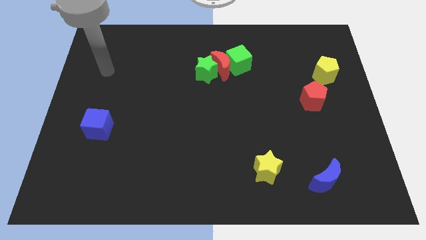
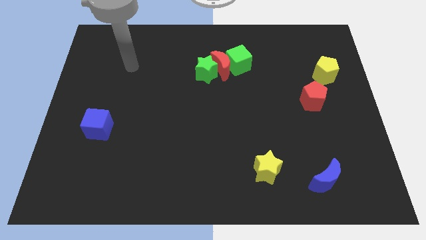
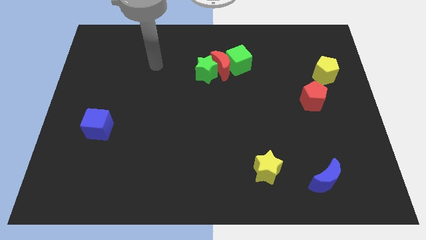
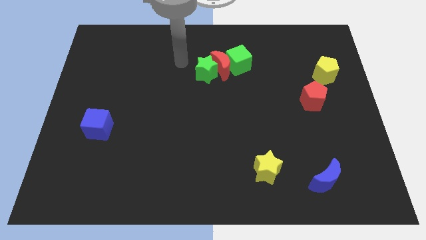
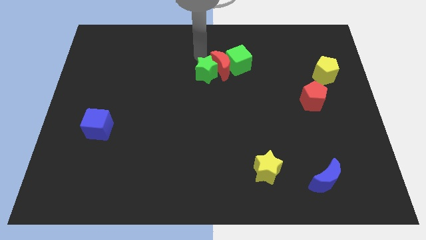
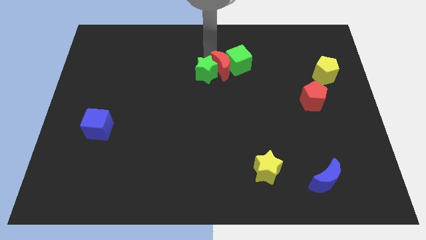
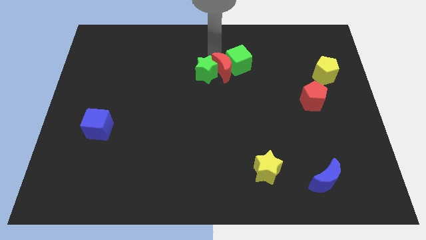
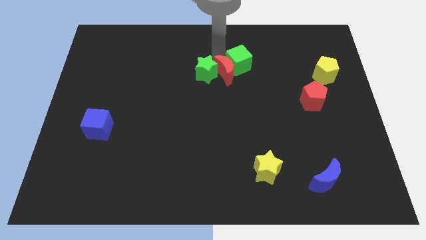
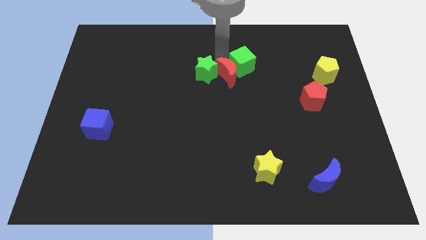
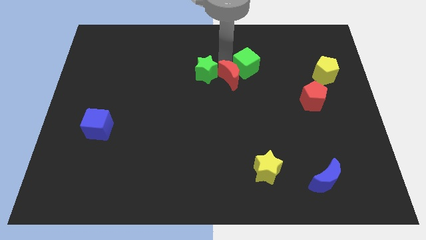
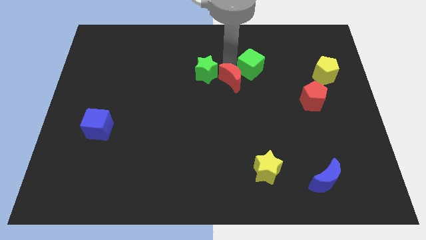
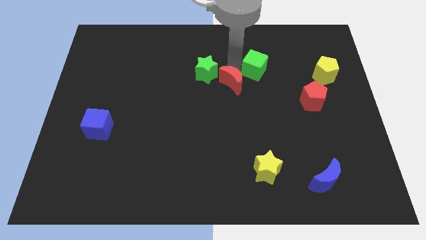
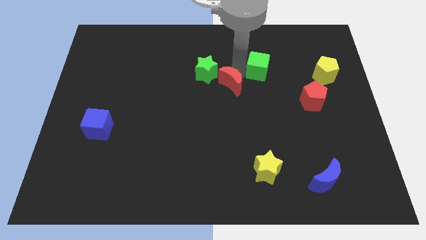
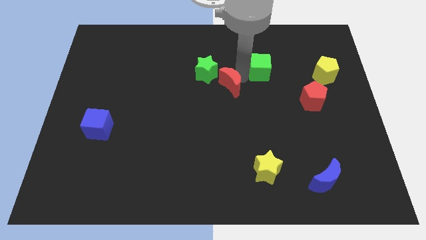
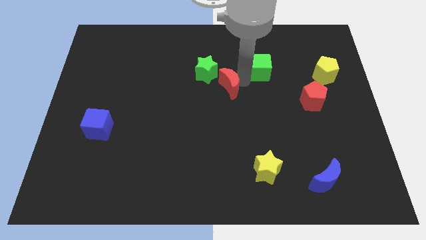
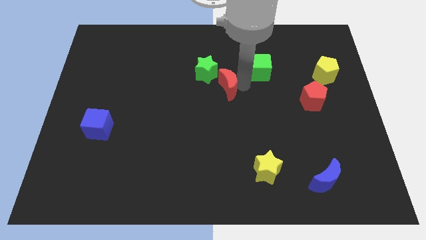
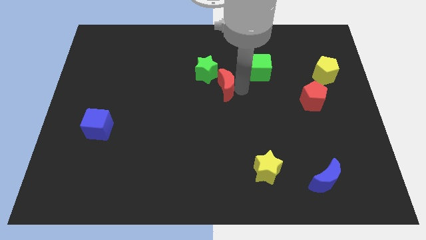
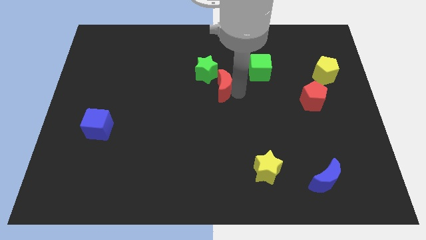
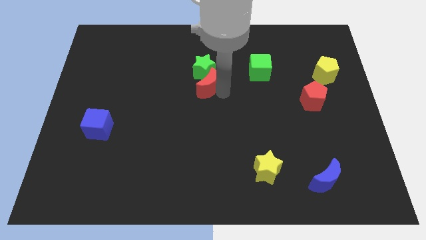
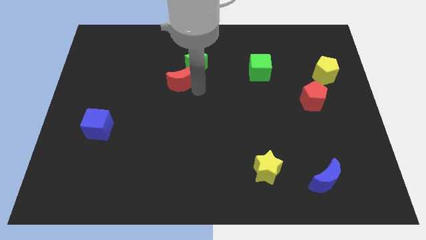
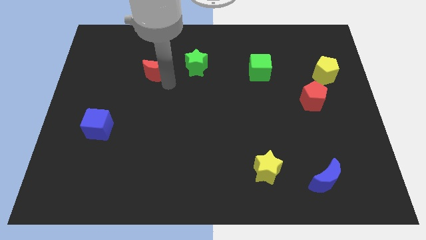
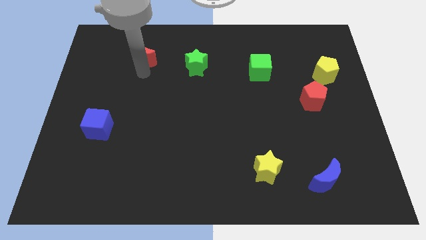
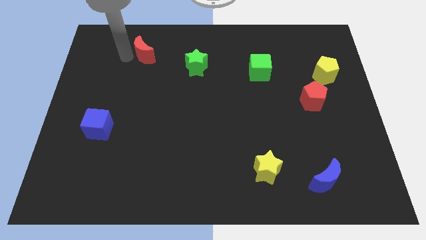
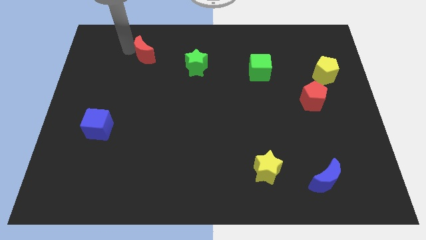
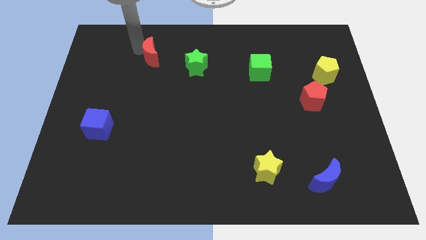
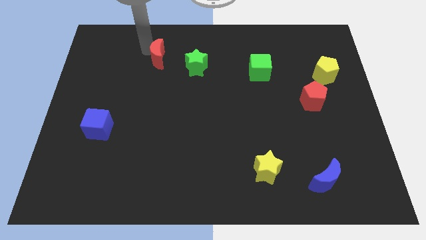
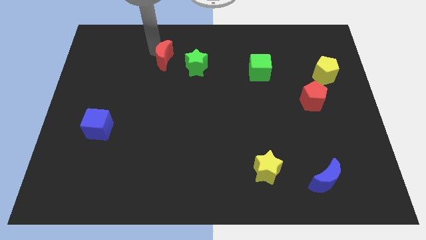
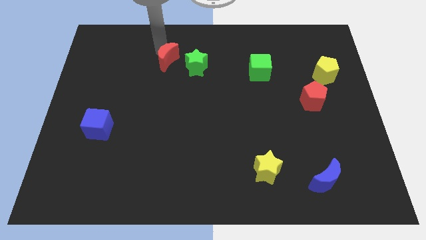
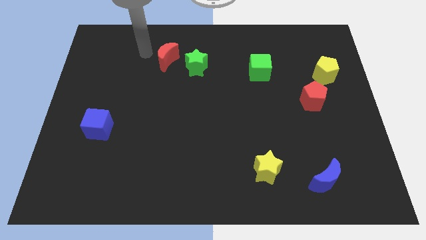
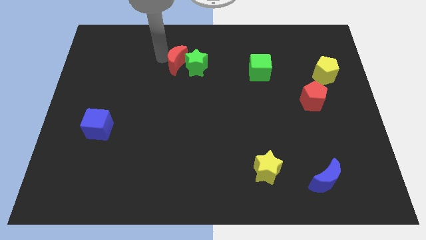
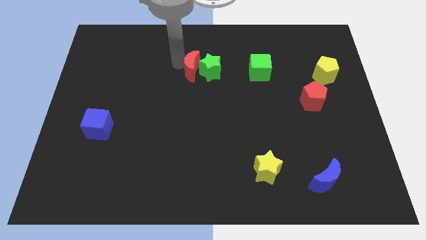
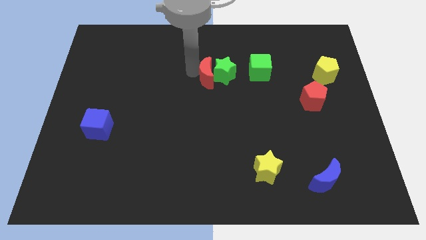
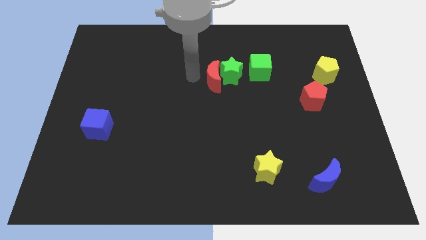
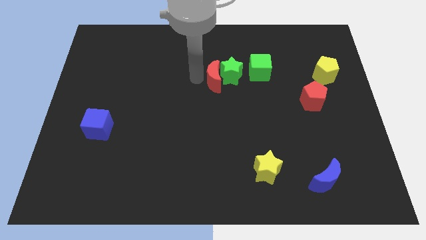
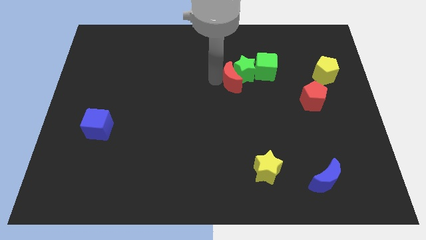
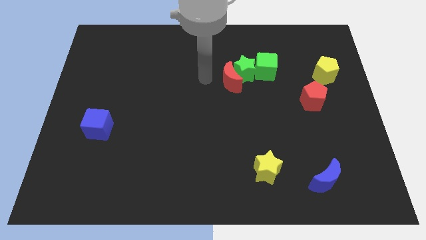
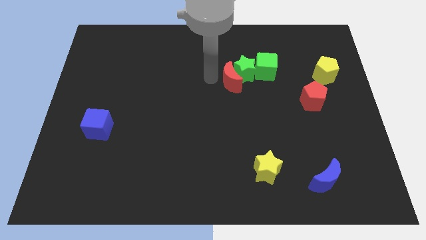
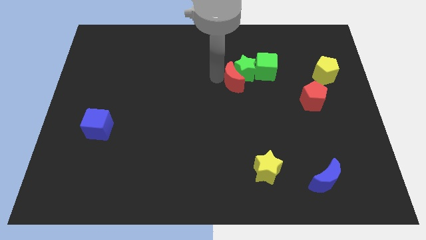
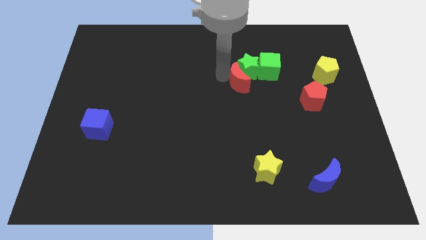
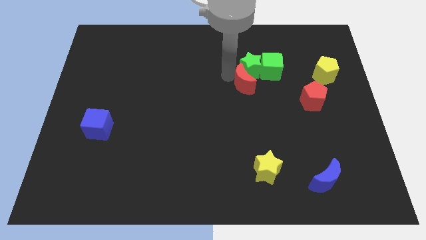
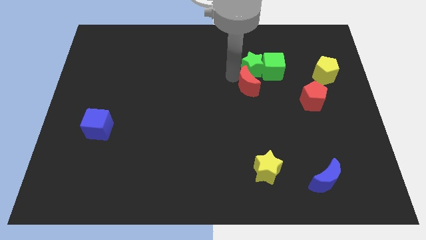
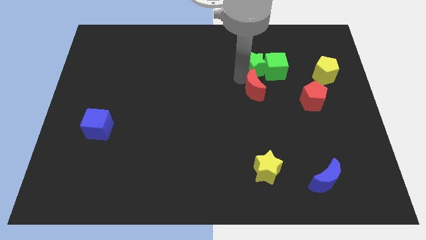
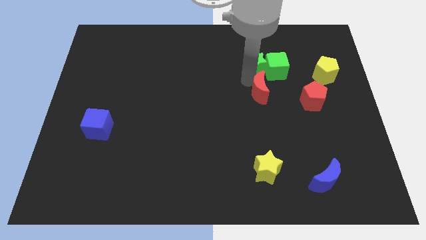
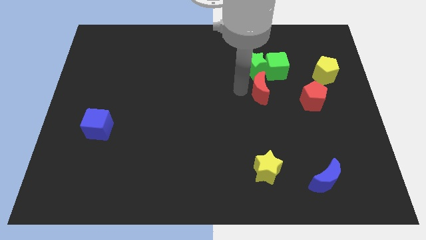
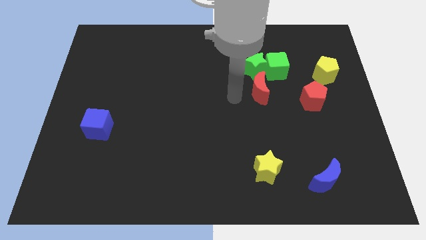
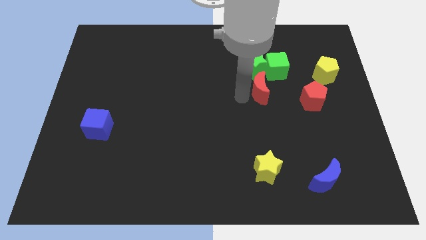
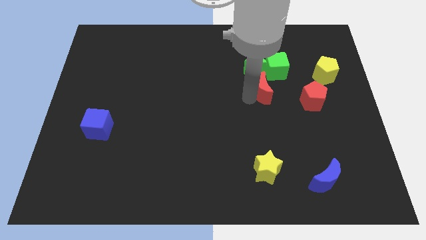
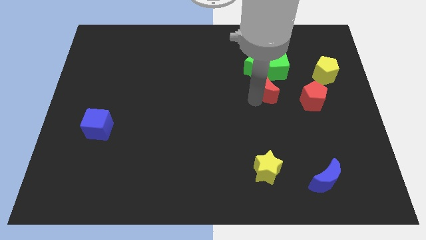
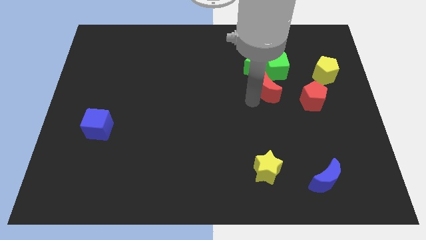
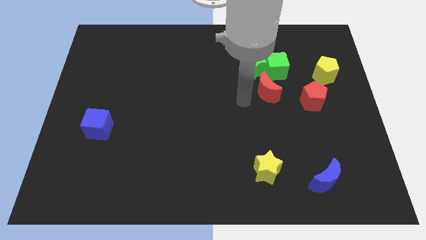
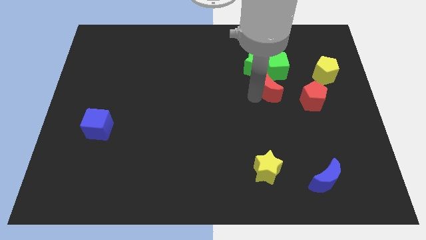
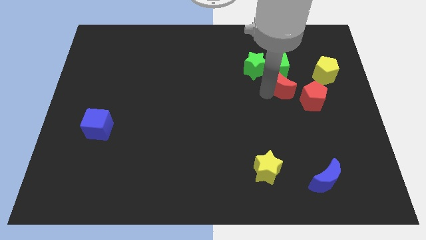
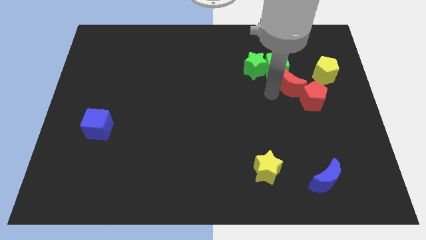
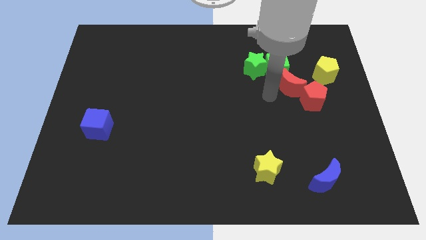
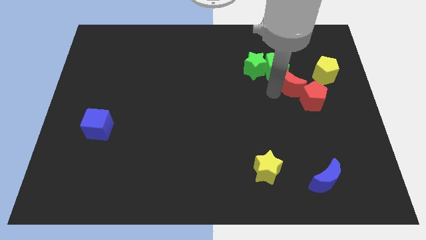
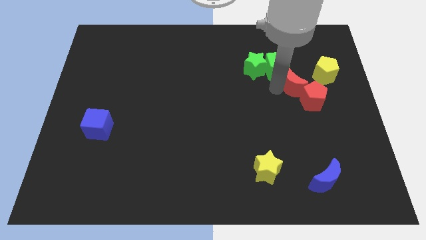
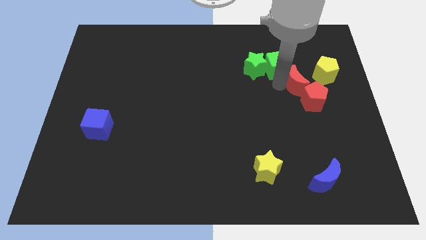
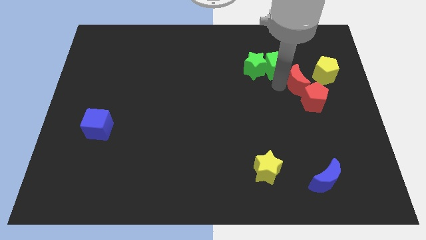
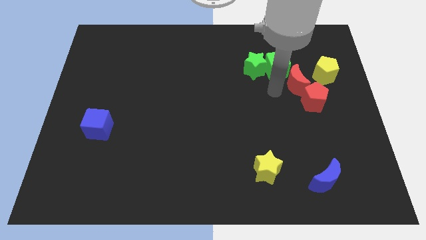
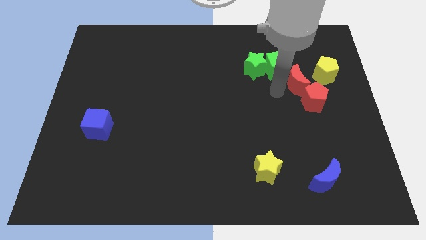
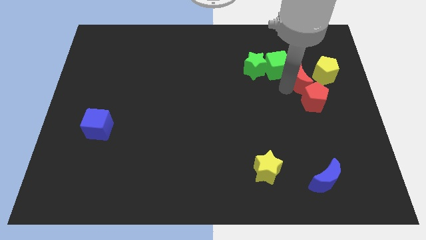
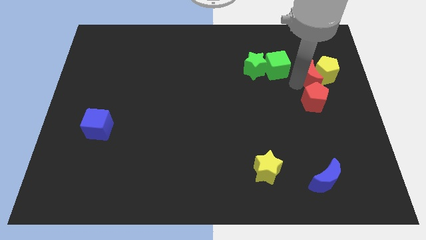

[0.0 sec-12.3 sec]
push the red moon close to the yellow pentagon
